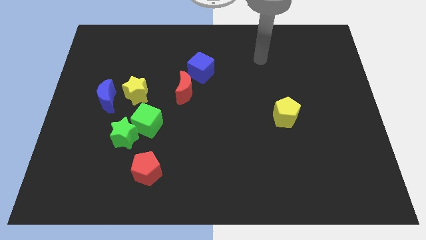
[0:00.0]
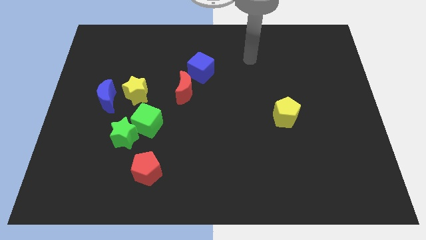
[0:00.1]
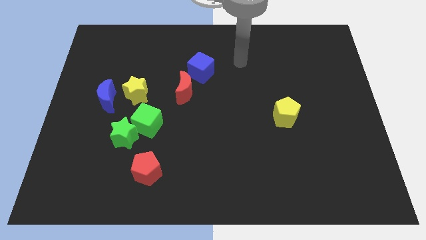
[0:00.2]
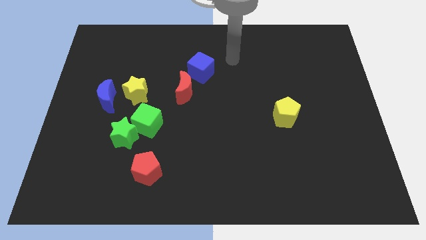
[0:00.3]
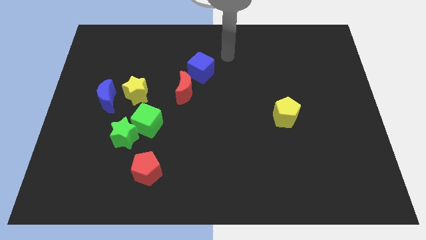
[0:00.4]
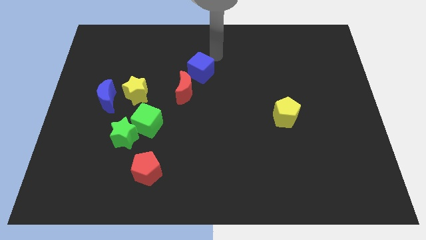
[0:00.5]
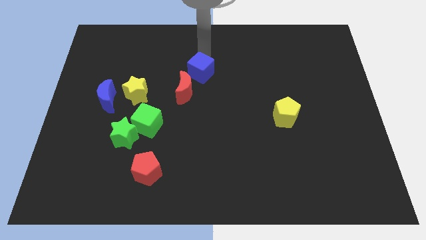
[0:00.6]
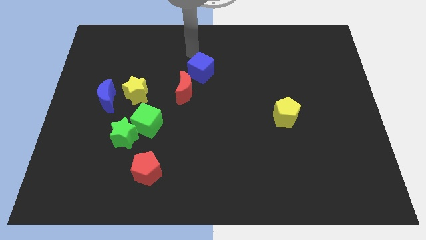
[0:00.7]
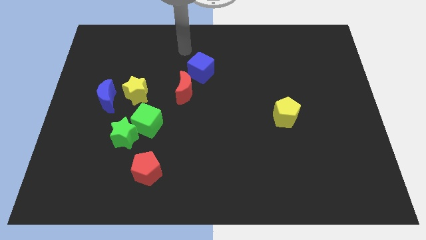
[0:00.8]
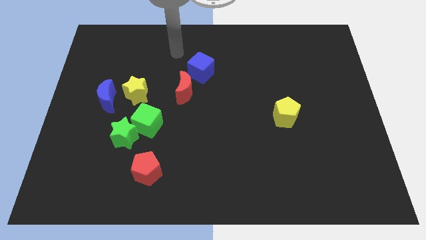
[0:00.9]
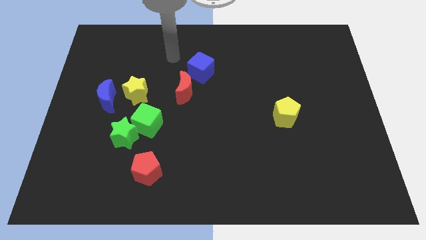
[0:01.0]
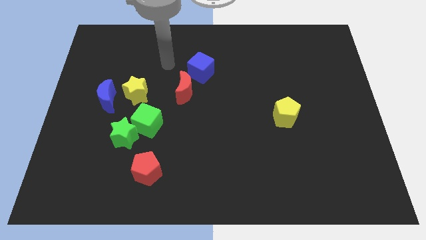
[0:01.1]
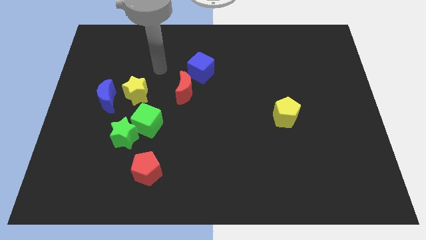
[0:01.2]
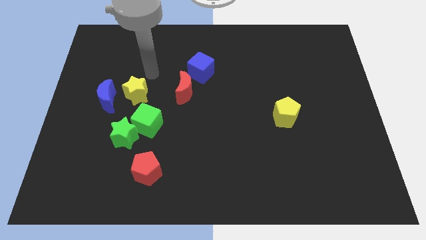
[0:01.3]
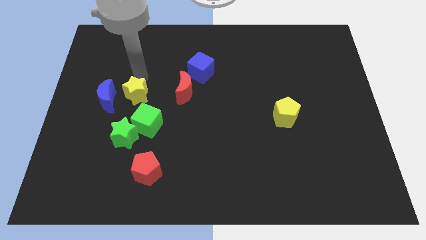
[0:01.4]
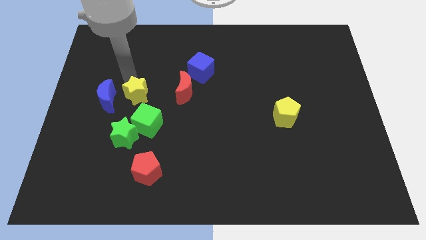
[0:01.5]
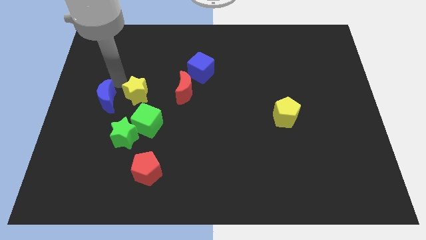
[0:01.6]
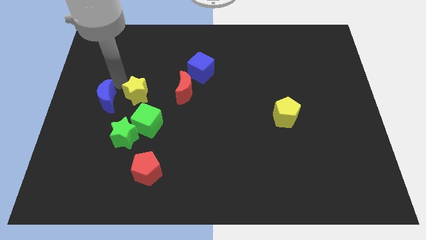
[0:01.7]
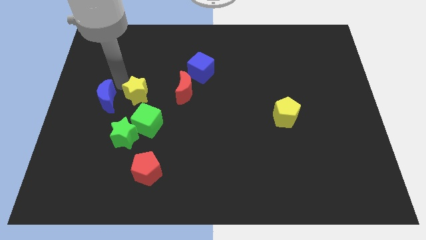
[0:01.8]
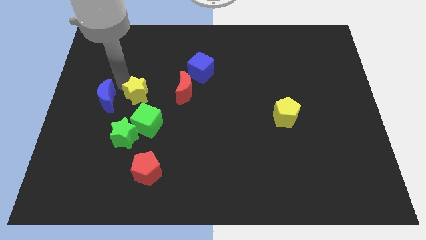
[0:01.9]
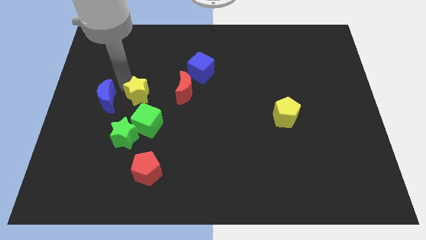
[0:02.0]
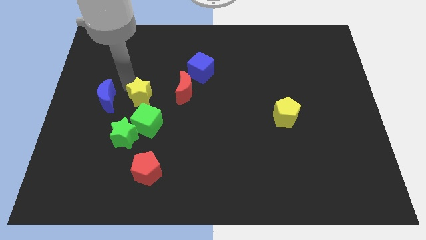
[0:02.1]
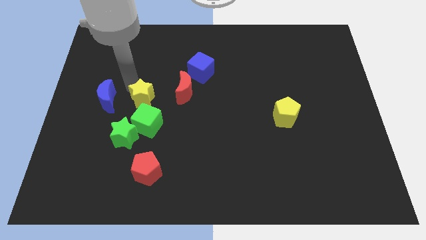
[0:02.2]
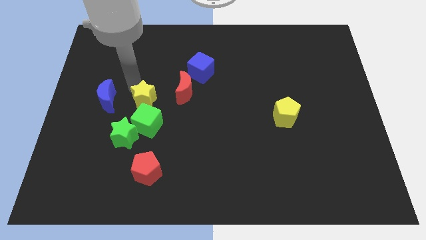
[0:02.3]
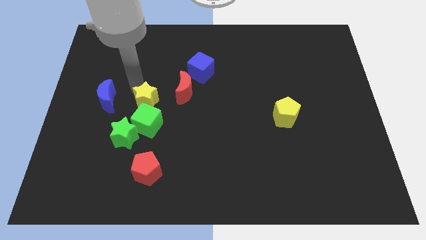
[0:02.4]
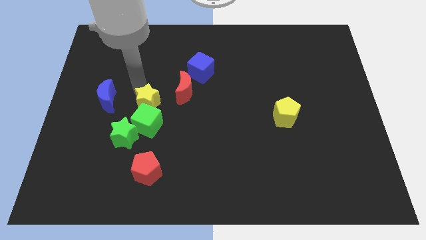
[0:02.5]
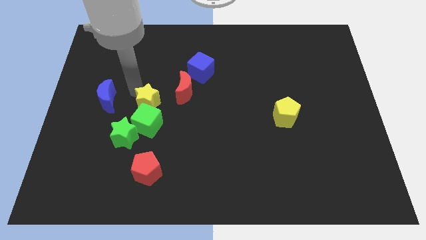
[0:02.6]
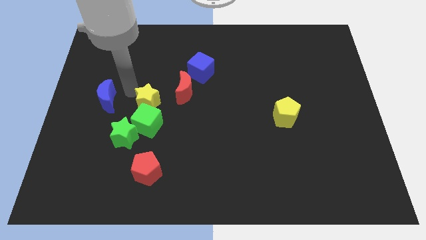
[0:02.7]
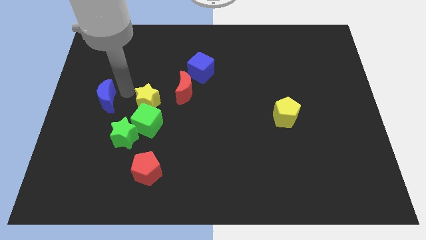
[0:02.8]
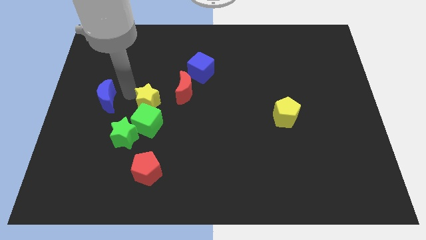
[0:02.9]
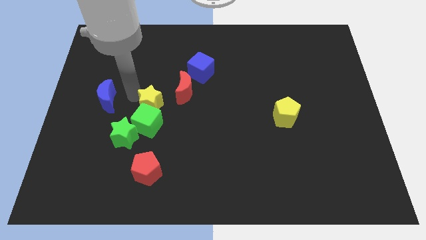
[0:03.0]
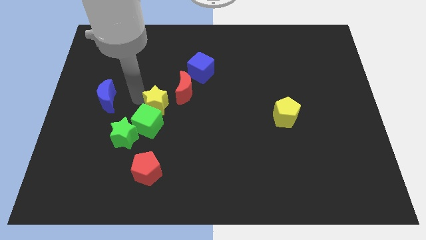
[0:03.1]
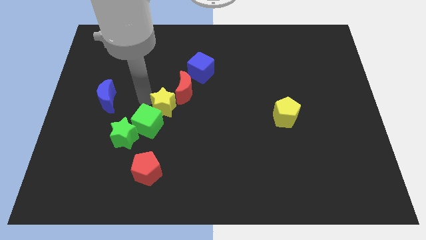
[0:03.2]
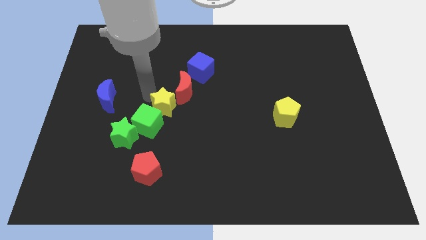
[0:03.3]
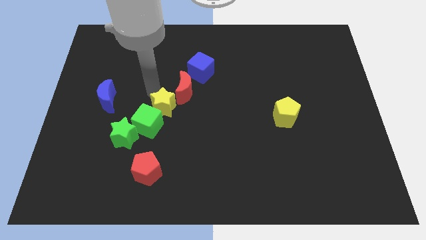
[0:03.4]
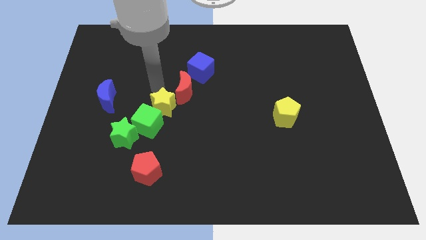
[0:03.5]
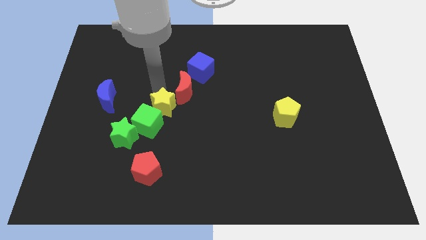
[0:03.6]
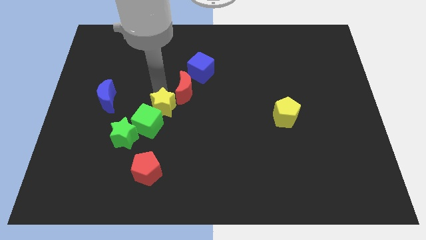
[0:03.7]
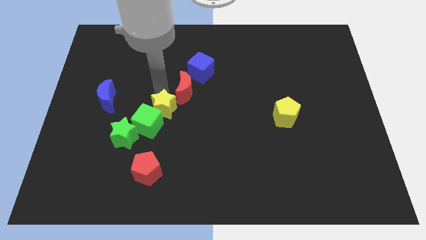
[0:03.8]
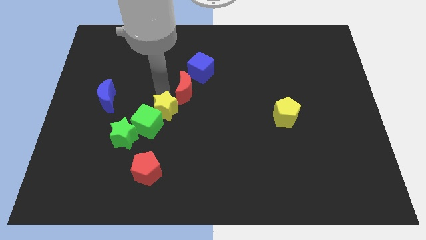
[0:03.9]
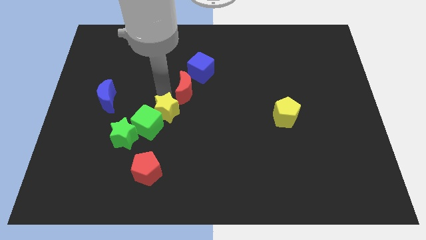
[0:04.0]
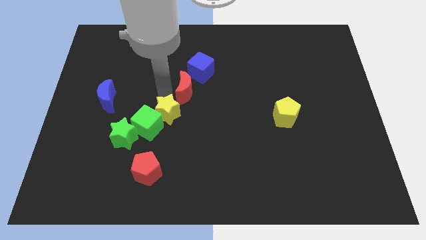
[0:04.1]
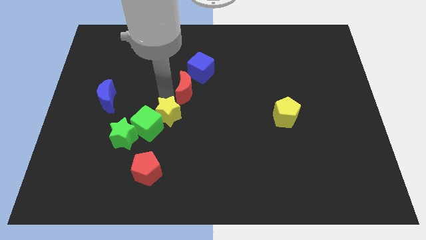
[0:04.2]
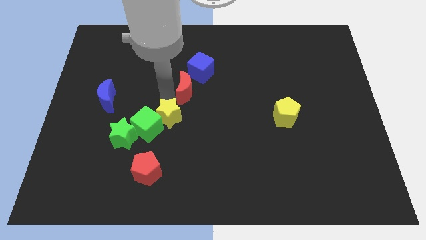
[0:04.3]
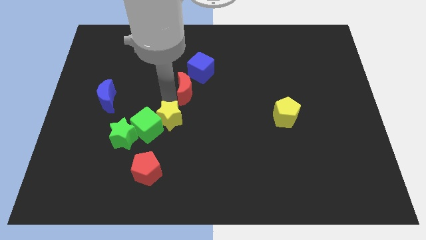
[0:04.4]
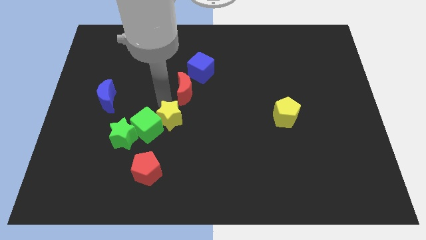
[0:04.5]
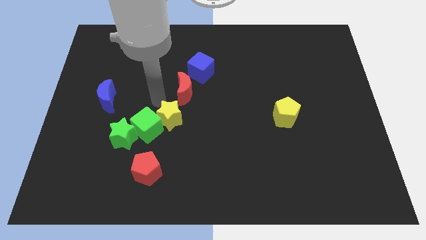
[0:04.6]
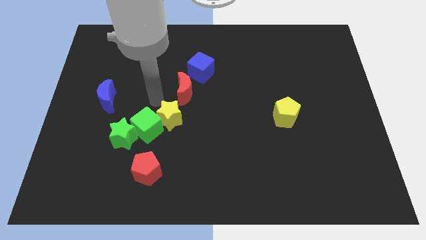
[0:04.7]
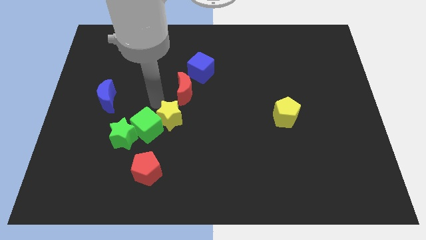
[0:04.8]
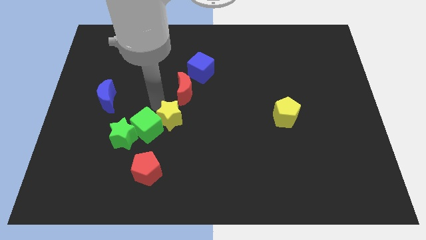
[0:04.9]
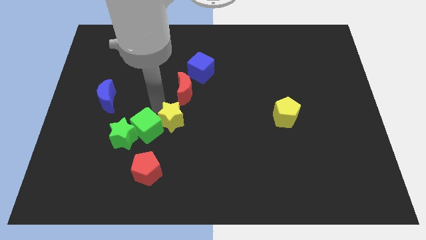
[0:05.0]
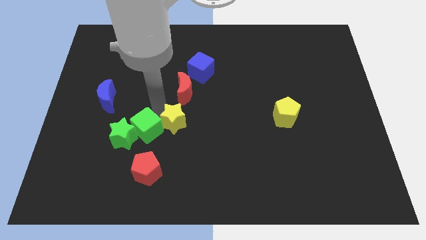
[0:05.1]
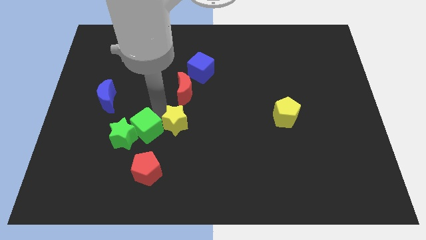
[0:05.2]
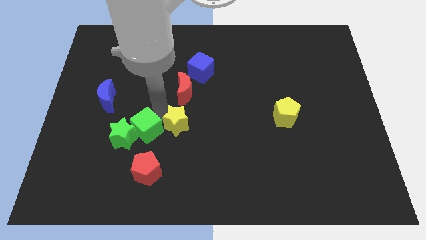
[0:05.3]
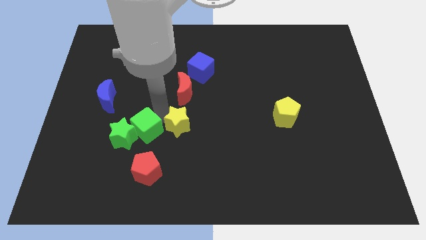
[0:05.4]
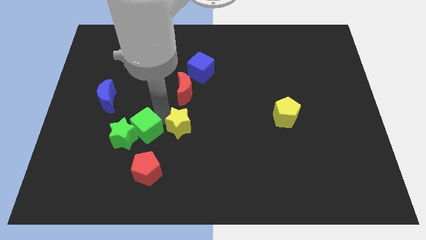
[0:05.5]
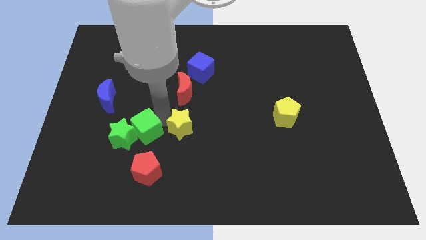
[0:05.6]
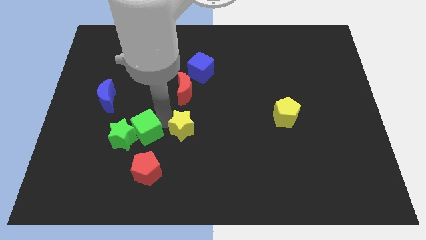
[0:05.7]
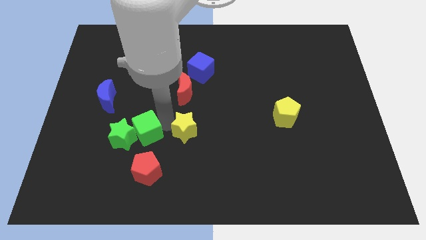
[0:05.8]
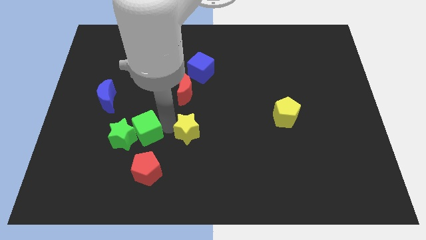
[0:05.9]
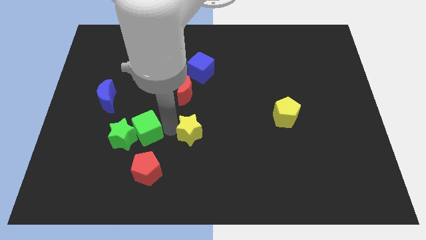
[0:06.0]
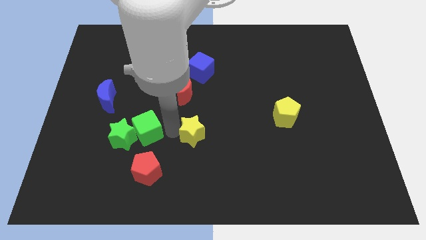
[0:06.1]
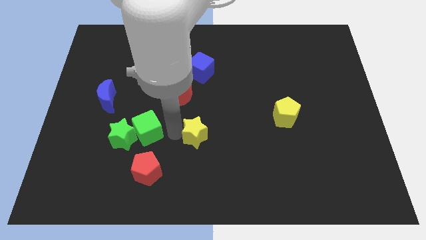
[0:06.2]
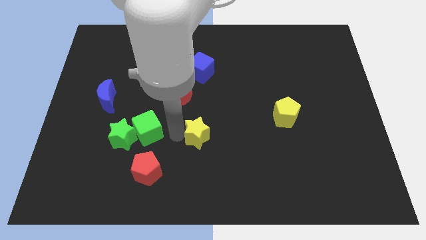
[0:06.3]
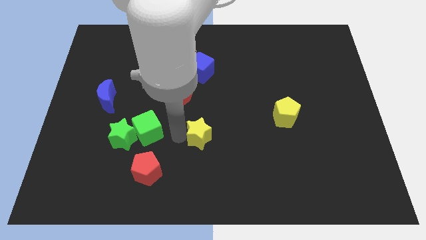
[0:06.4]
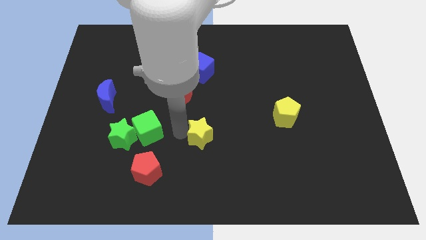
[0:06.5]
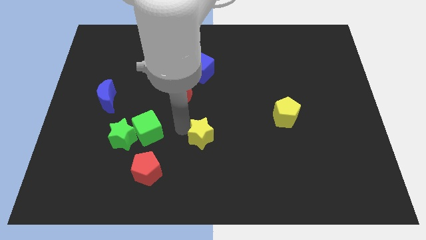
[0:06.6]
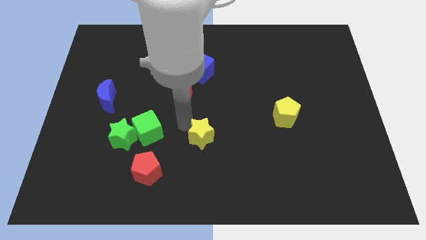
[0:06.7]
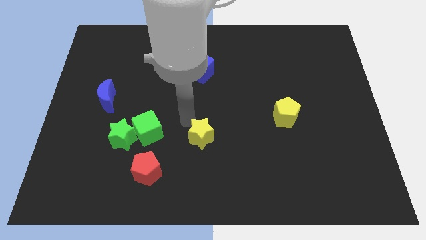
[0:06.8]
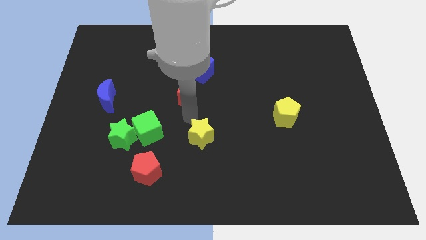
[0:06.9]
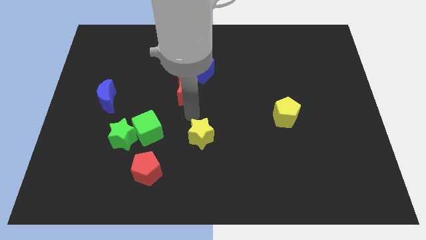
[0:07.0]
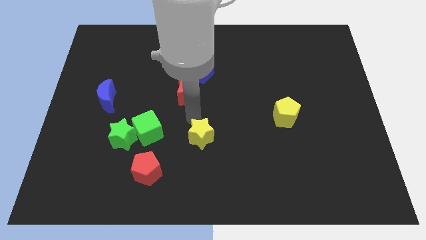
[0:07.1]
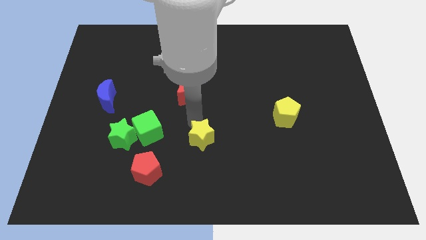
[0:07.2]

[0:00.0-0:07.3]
push the yellow star down and then right

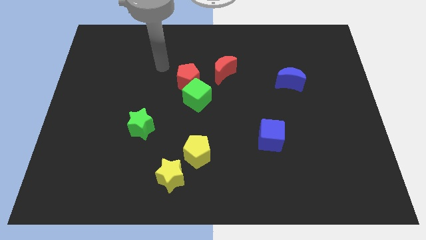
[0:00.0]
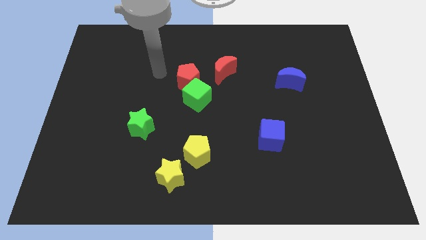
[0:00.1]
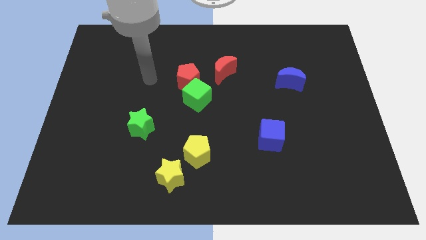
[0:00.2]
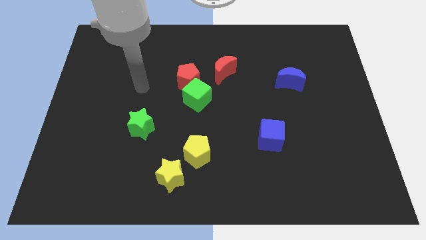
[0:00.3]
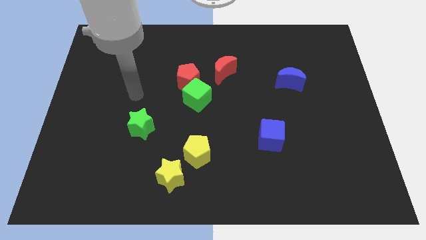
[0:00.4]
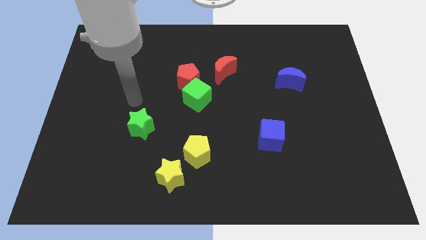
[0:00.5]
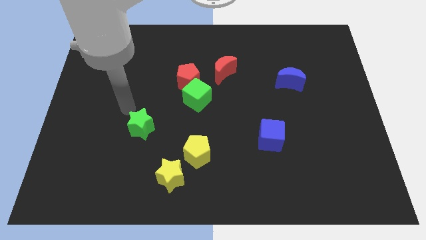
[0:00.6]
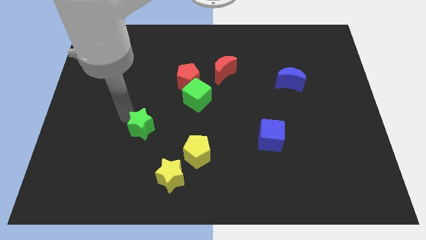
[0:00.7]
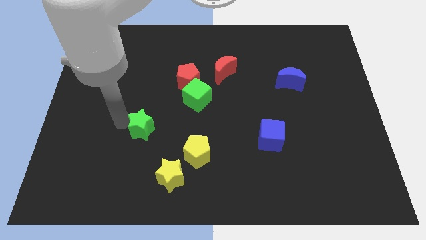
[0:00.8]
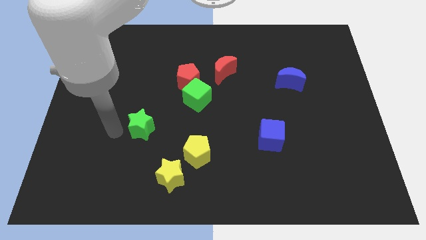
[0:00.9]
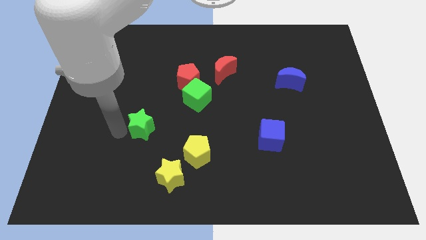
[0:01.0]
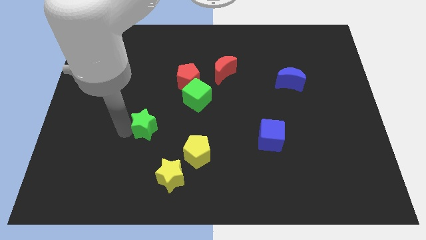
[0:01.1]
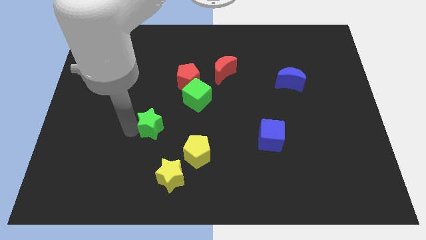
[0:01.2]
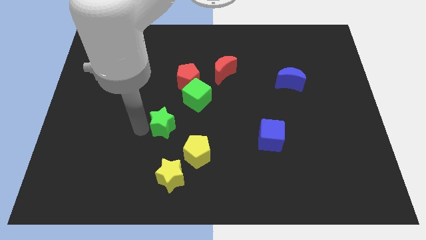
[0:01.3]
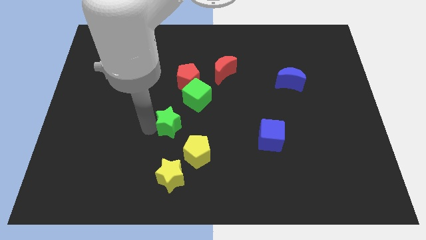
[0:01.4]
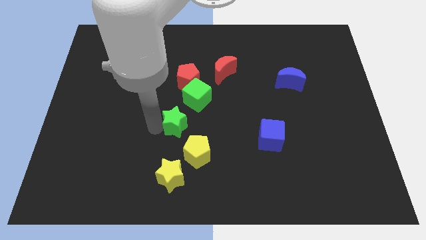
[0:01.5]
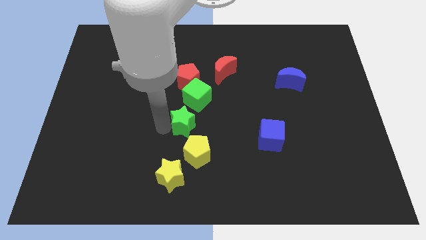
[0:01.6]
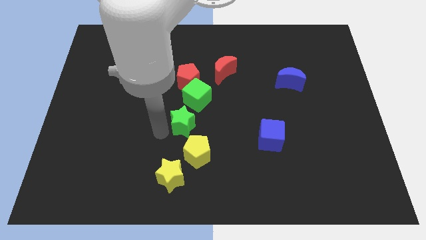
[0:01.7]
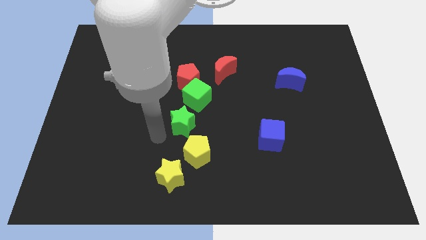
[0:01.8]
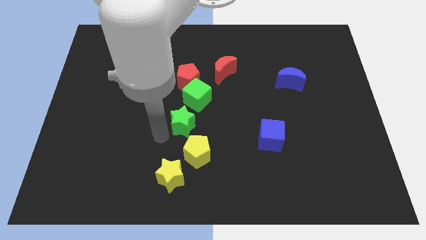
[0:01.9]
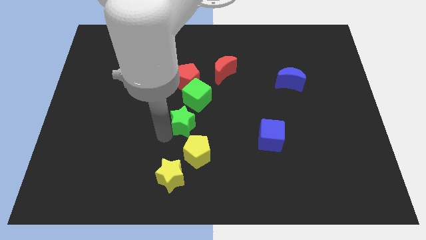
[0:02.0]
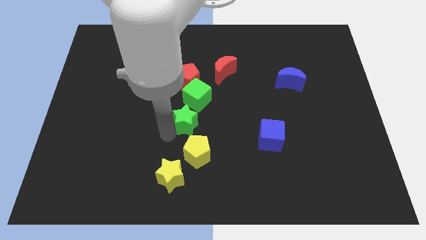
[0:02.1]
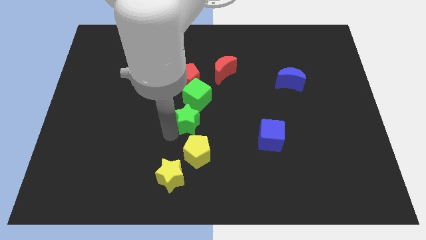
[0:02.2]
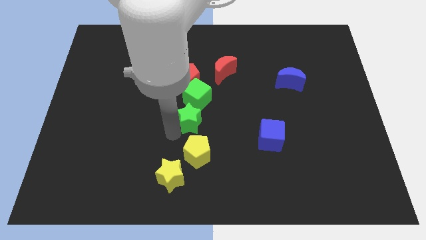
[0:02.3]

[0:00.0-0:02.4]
slide the green star somewhat up and to the right diagonally
